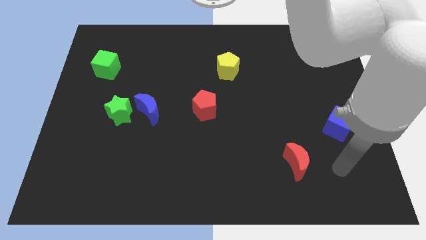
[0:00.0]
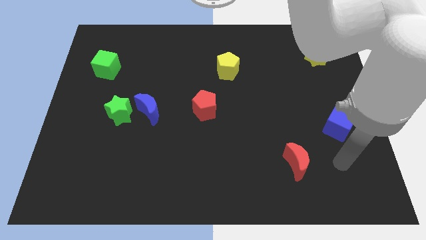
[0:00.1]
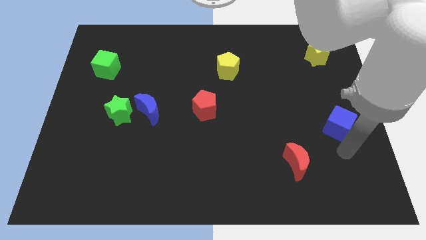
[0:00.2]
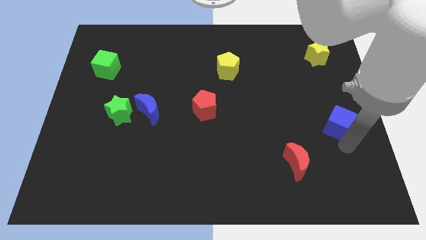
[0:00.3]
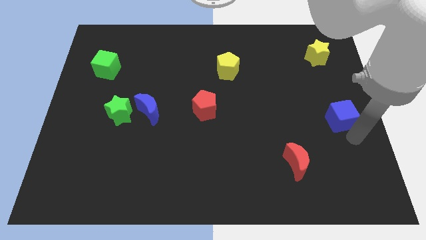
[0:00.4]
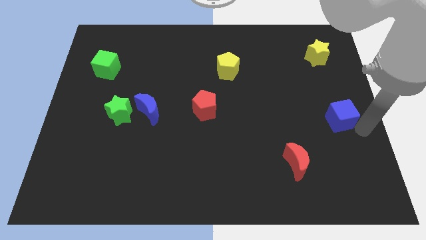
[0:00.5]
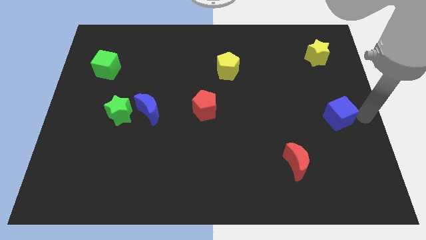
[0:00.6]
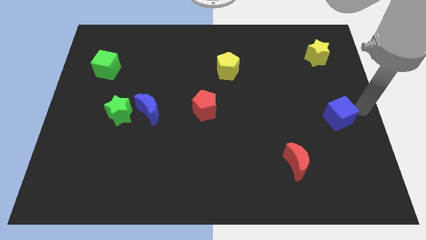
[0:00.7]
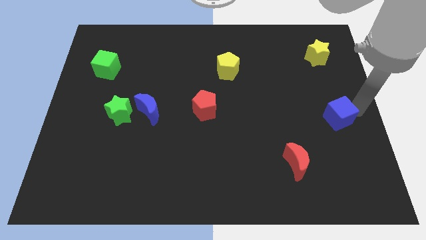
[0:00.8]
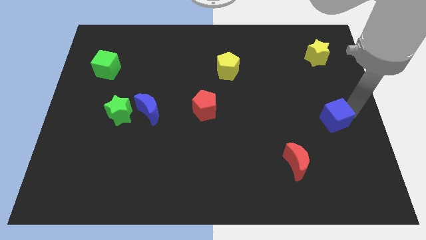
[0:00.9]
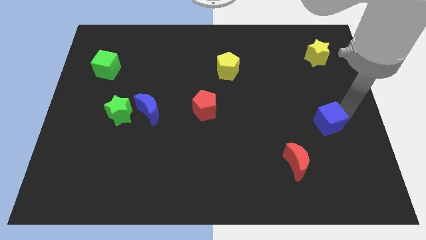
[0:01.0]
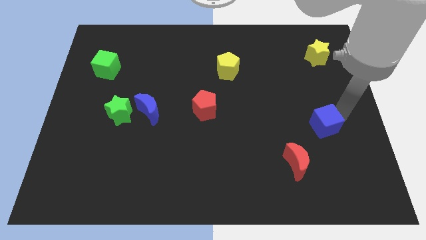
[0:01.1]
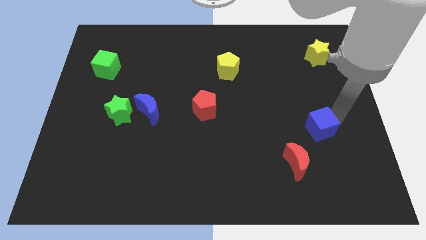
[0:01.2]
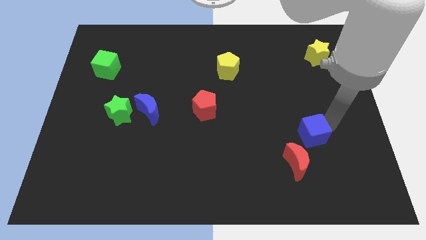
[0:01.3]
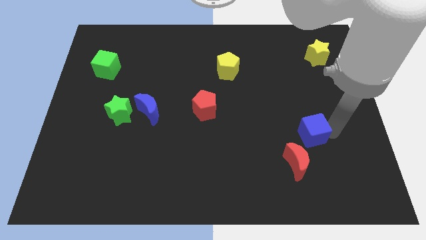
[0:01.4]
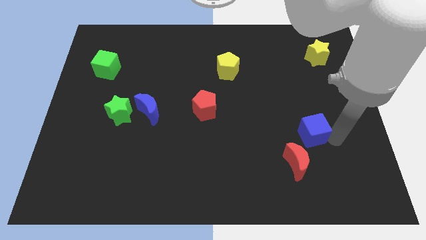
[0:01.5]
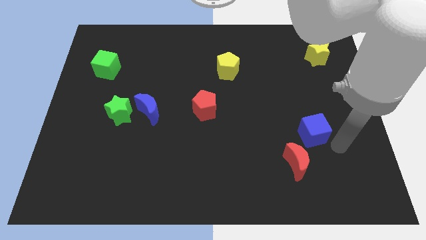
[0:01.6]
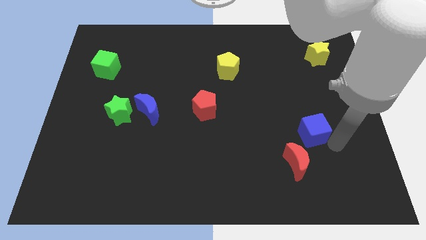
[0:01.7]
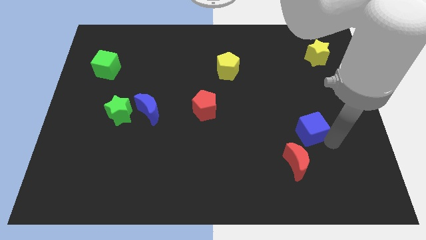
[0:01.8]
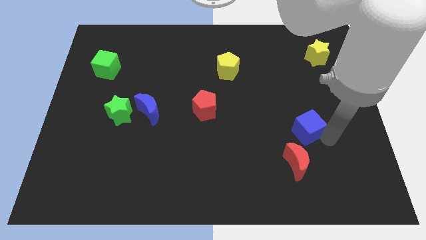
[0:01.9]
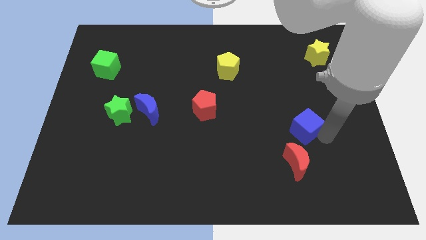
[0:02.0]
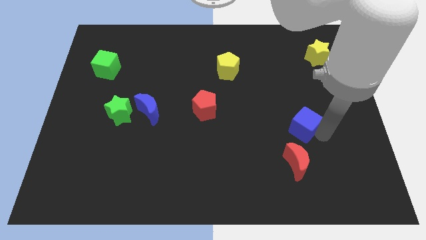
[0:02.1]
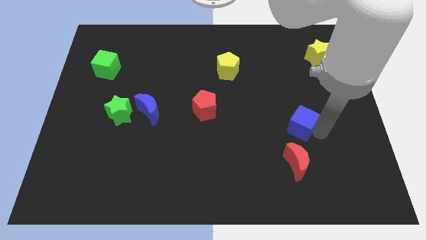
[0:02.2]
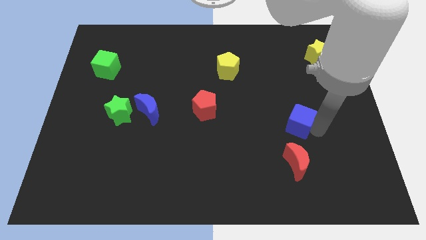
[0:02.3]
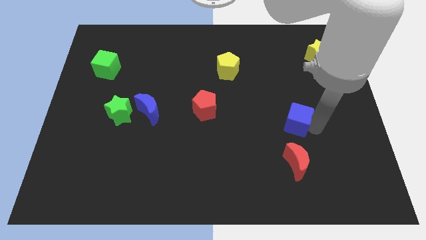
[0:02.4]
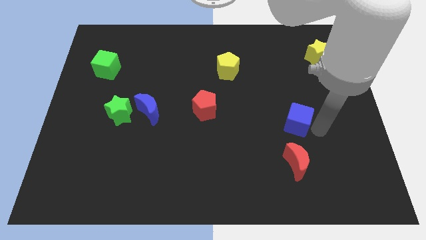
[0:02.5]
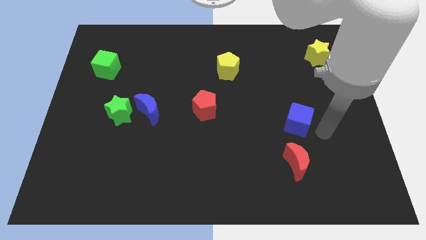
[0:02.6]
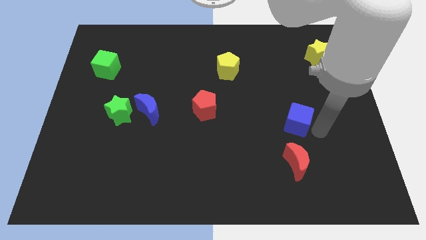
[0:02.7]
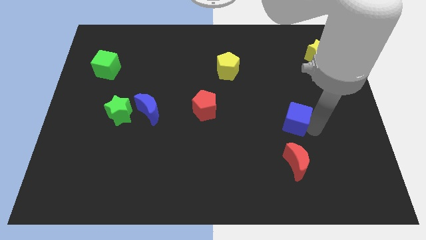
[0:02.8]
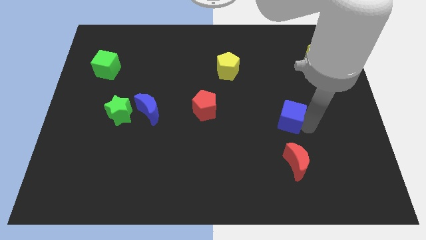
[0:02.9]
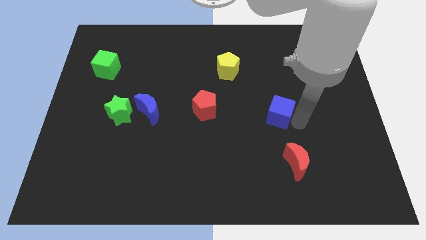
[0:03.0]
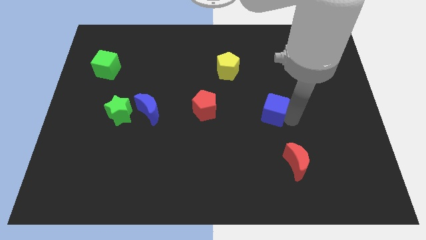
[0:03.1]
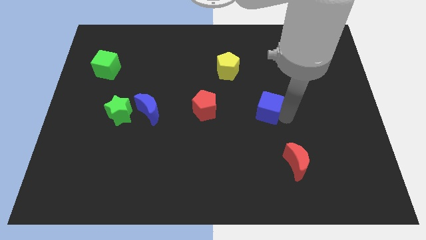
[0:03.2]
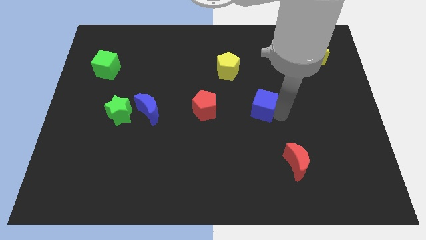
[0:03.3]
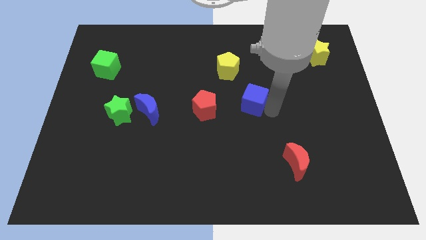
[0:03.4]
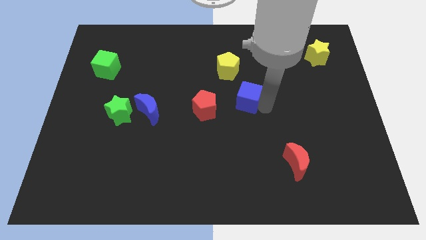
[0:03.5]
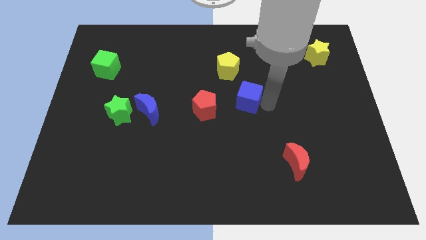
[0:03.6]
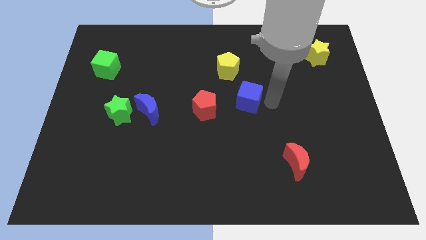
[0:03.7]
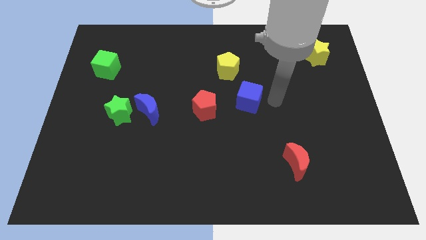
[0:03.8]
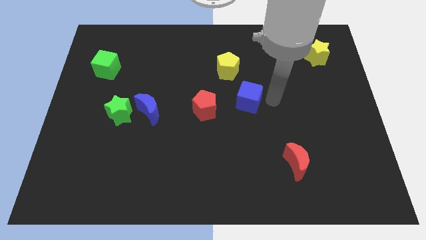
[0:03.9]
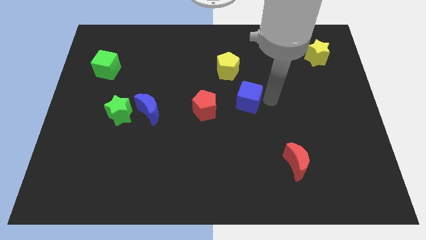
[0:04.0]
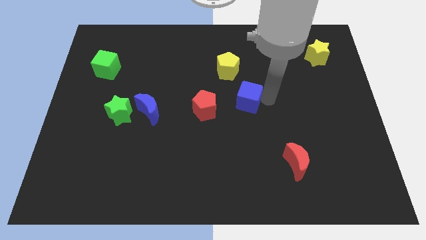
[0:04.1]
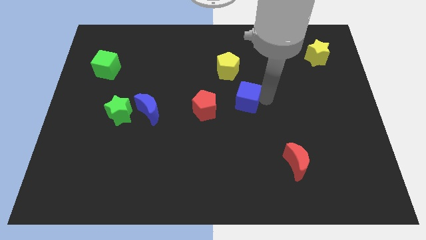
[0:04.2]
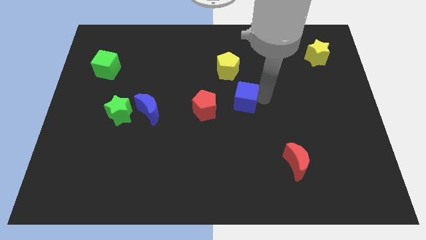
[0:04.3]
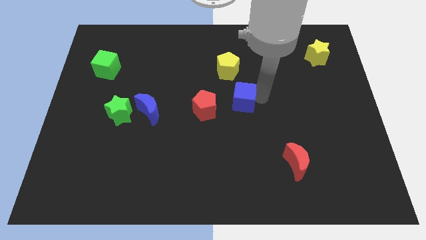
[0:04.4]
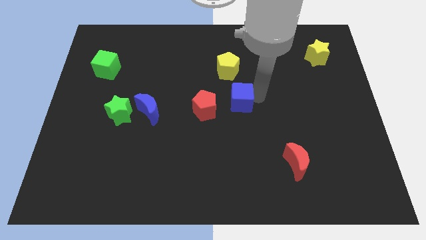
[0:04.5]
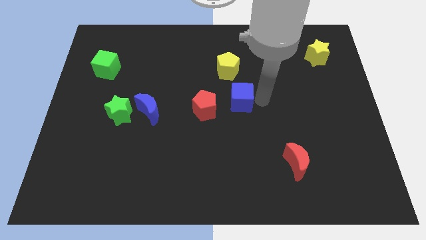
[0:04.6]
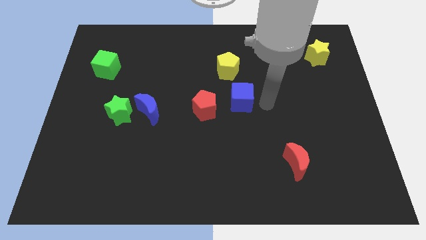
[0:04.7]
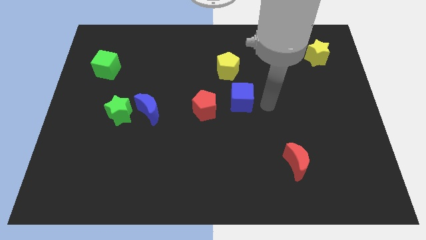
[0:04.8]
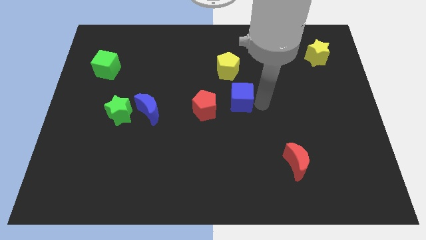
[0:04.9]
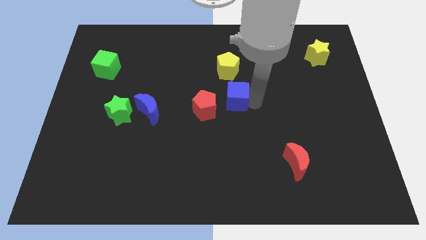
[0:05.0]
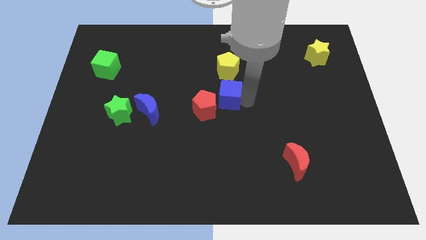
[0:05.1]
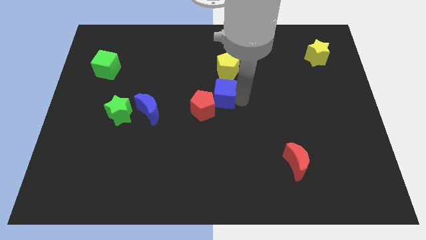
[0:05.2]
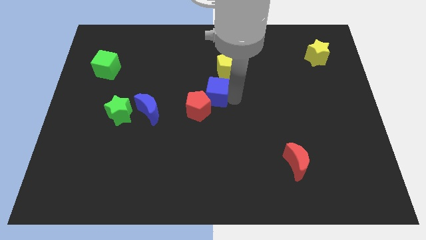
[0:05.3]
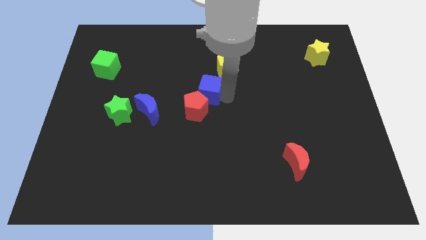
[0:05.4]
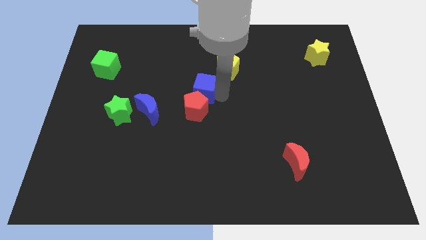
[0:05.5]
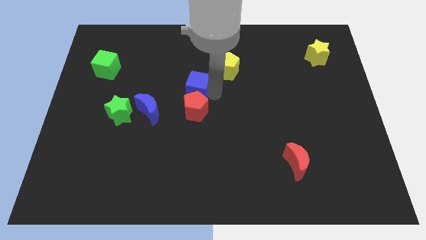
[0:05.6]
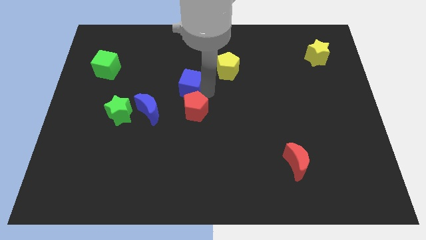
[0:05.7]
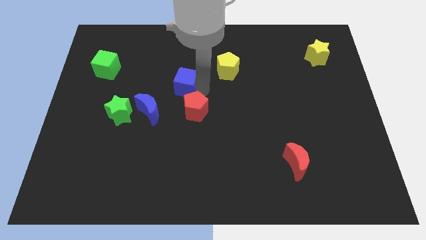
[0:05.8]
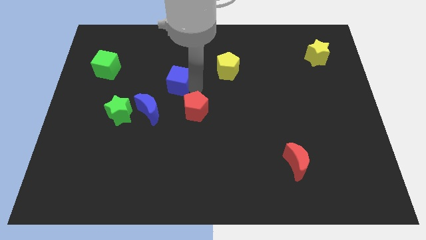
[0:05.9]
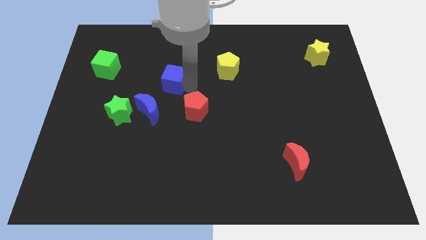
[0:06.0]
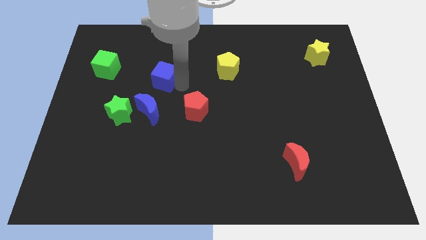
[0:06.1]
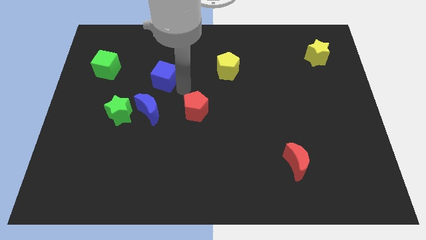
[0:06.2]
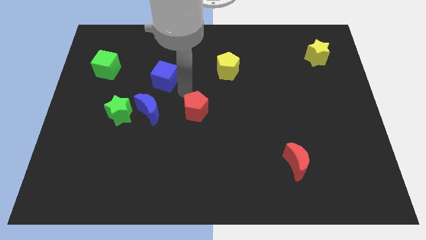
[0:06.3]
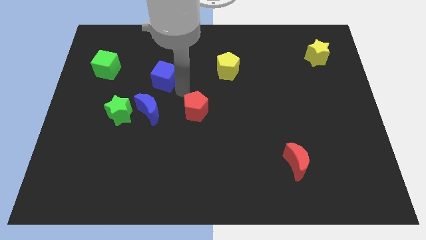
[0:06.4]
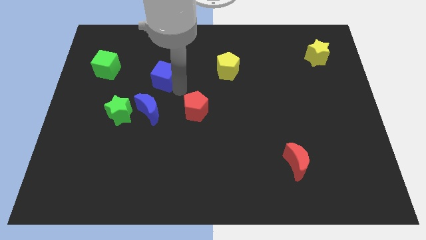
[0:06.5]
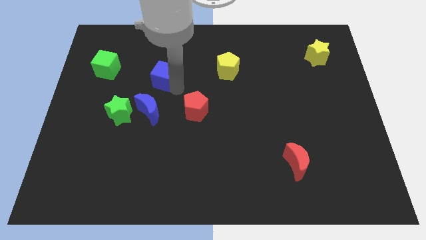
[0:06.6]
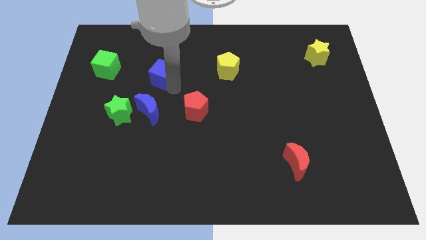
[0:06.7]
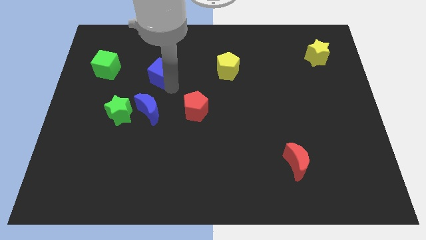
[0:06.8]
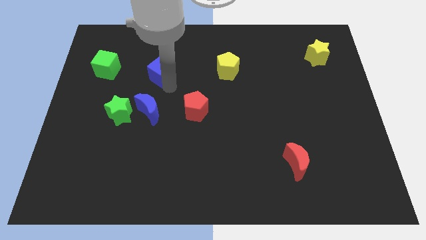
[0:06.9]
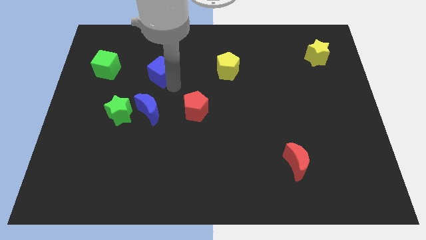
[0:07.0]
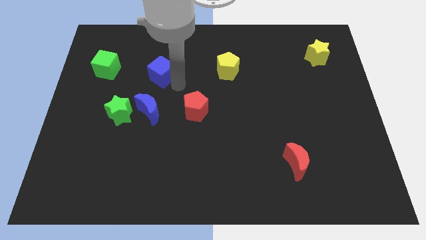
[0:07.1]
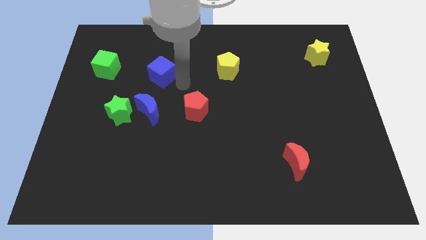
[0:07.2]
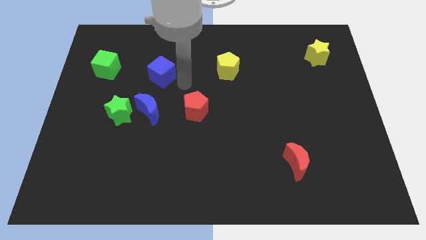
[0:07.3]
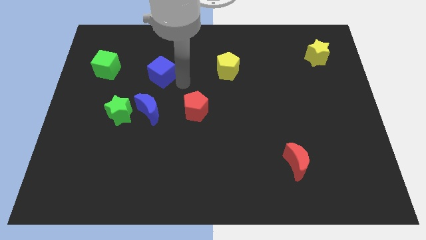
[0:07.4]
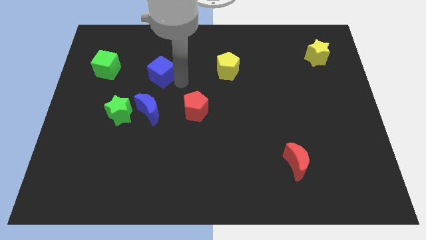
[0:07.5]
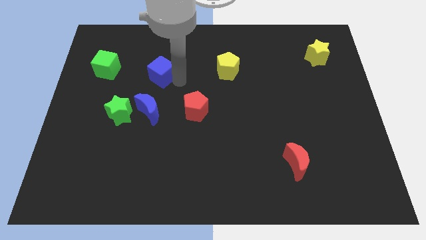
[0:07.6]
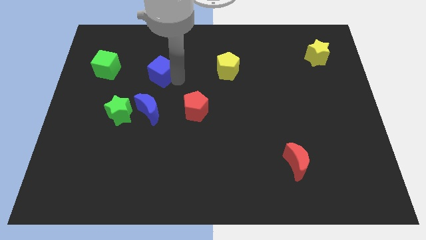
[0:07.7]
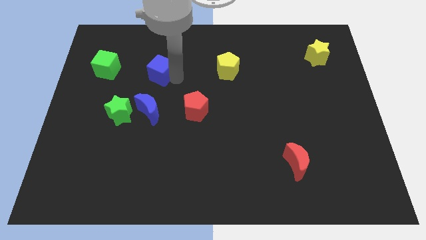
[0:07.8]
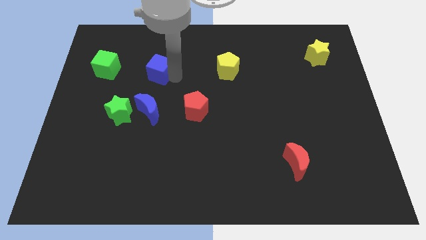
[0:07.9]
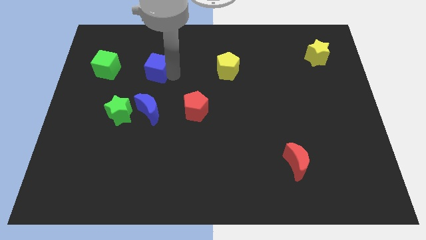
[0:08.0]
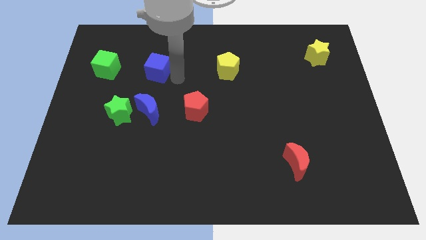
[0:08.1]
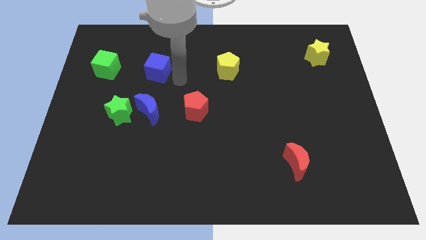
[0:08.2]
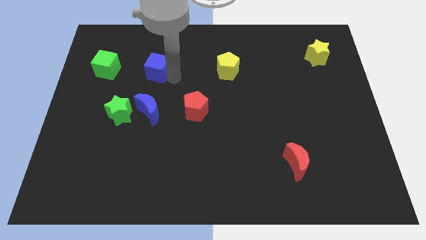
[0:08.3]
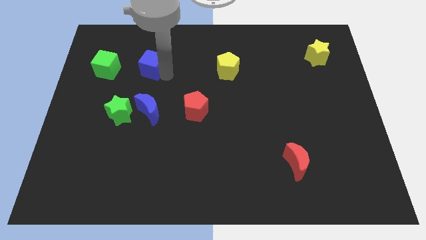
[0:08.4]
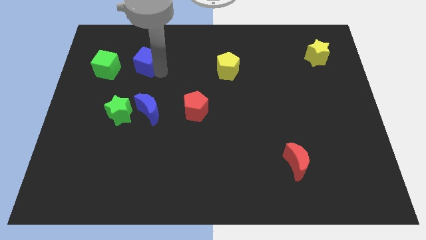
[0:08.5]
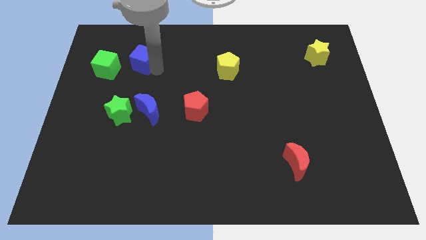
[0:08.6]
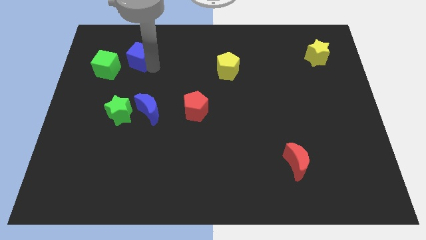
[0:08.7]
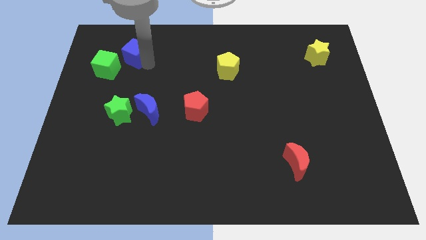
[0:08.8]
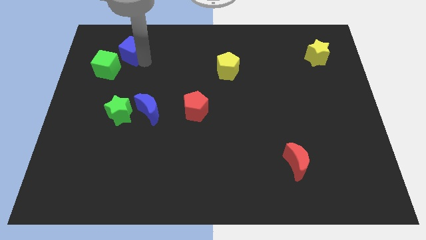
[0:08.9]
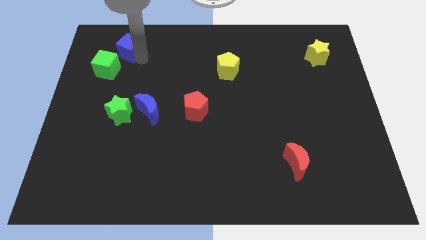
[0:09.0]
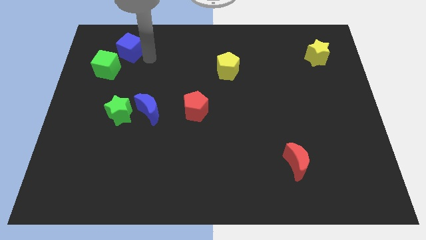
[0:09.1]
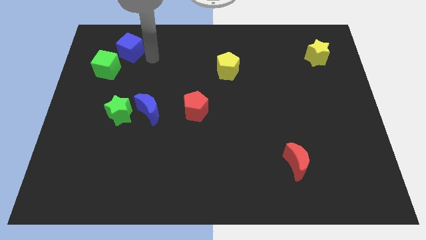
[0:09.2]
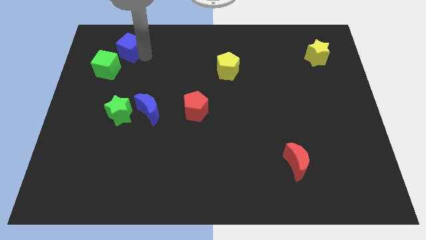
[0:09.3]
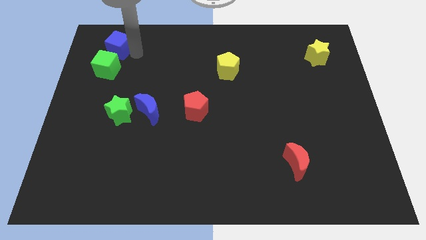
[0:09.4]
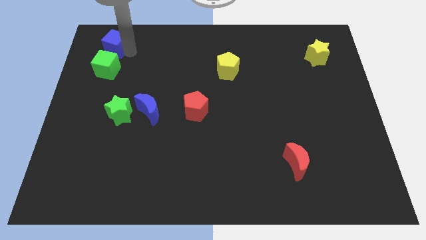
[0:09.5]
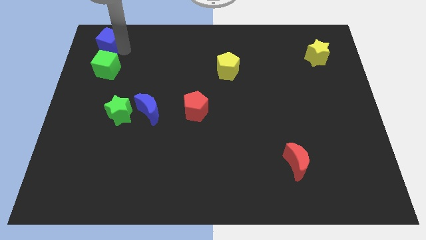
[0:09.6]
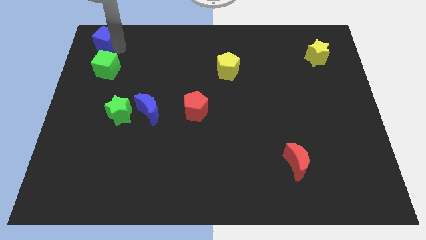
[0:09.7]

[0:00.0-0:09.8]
push the blue cube to the upper left corner
